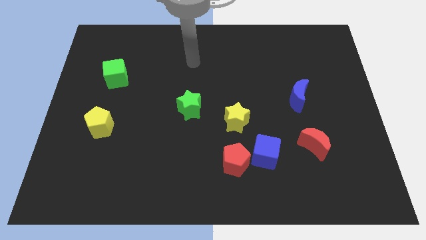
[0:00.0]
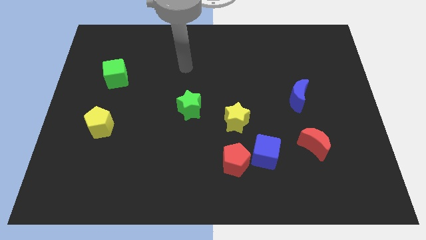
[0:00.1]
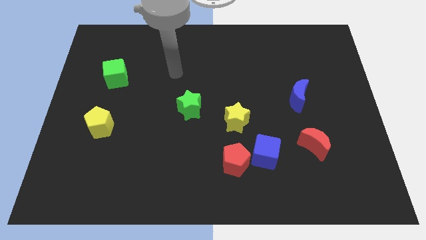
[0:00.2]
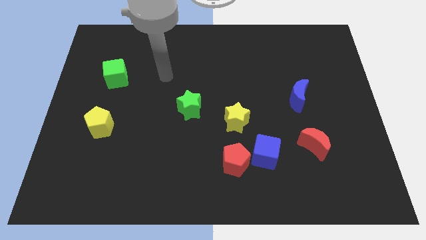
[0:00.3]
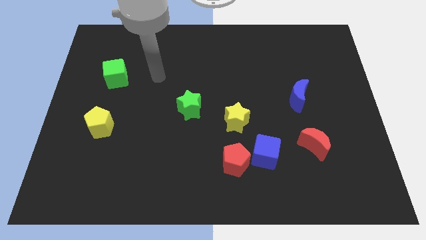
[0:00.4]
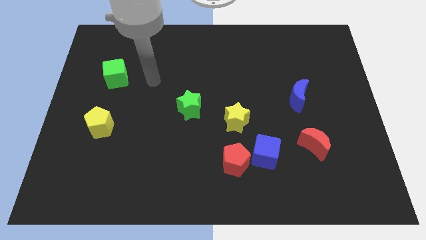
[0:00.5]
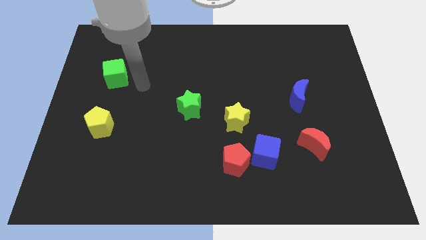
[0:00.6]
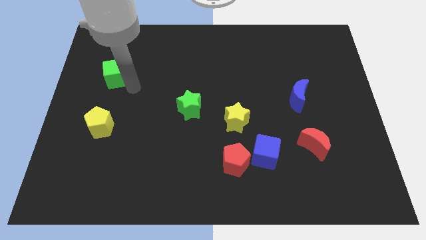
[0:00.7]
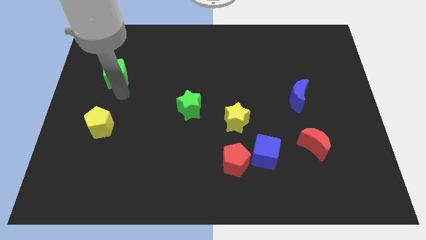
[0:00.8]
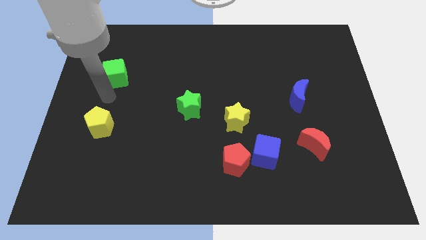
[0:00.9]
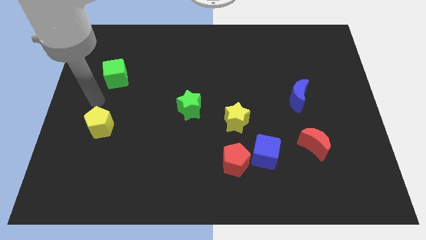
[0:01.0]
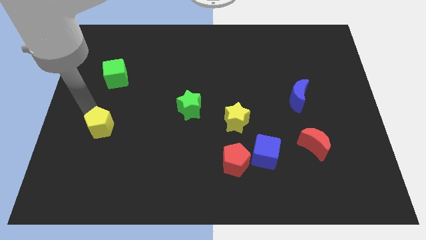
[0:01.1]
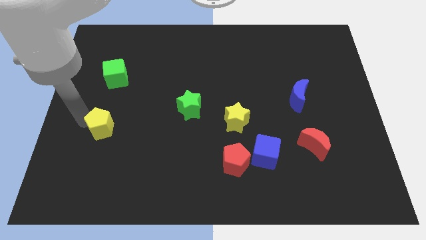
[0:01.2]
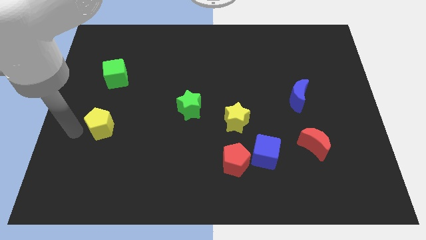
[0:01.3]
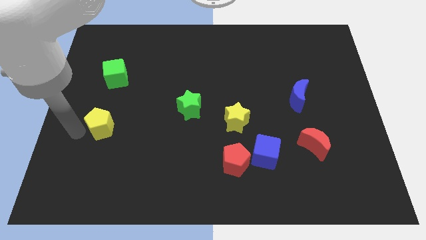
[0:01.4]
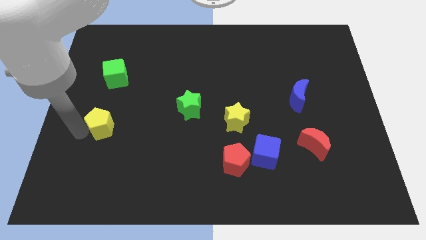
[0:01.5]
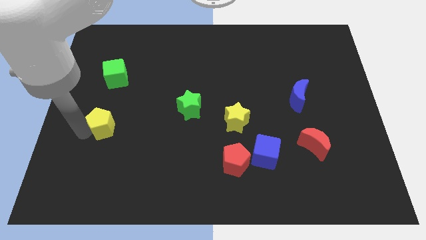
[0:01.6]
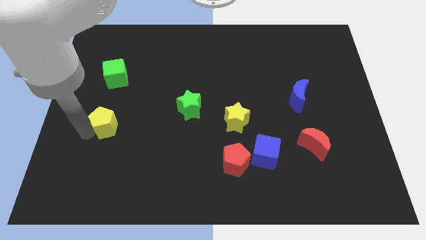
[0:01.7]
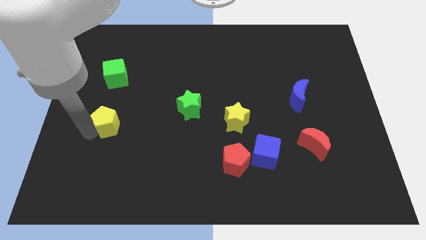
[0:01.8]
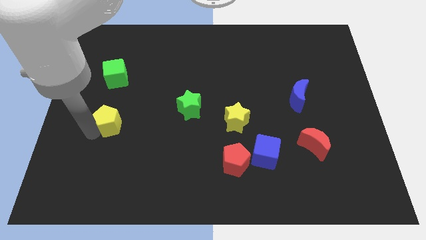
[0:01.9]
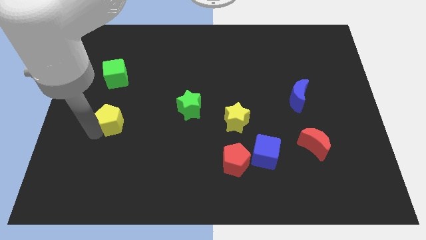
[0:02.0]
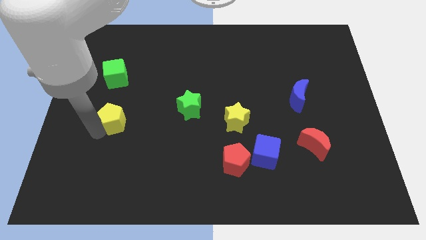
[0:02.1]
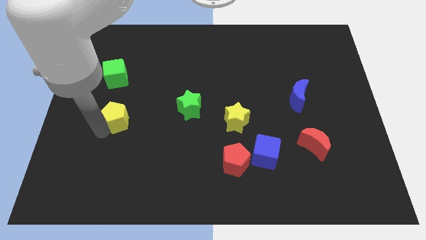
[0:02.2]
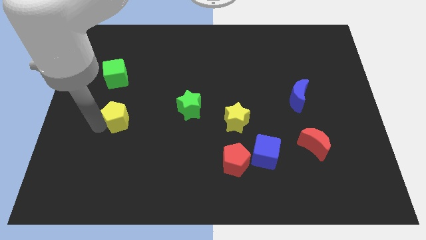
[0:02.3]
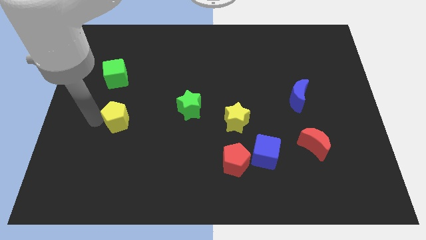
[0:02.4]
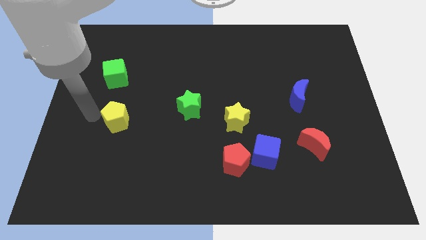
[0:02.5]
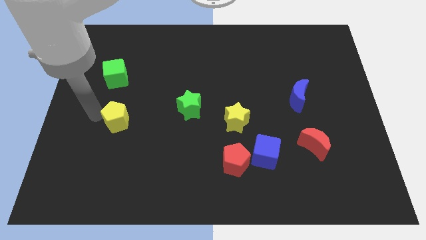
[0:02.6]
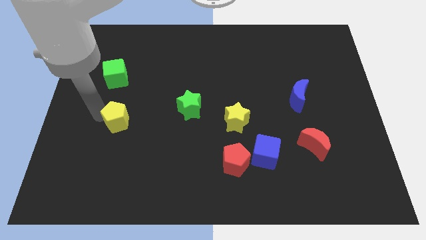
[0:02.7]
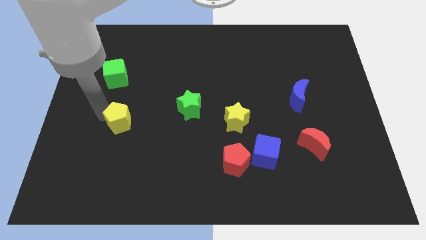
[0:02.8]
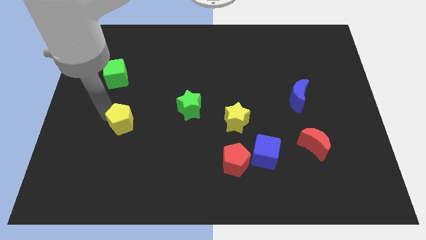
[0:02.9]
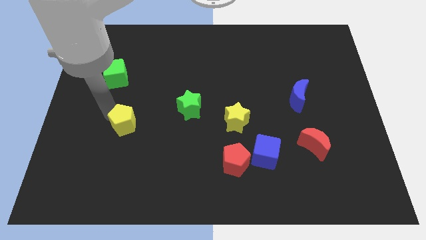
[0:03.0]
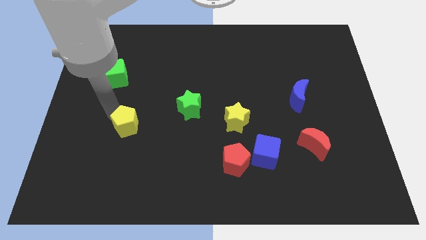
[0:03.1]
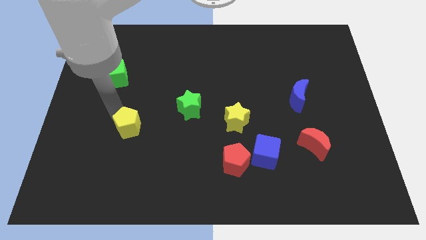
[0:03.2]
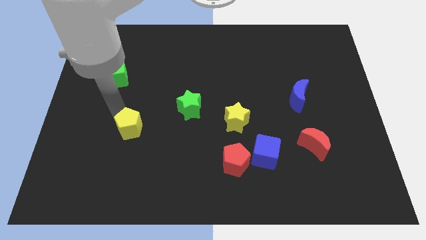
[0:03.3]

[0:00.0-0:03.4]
move the yellow pentagon right a little bit

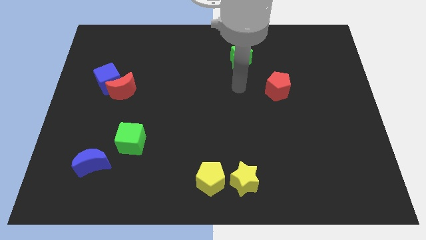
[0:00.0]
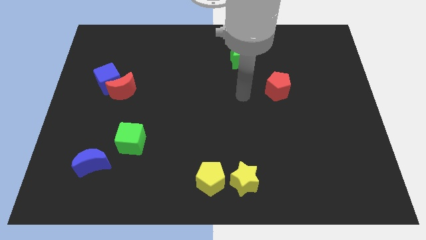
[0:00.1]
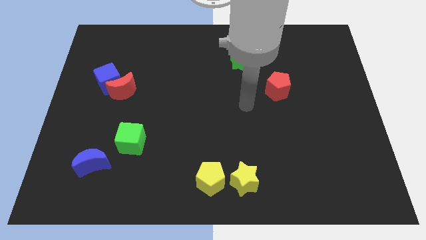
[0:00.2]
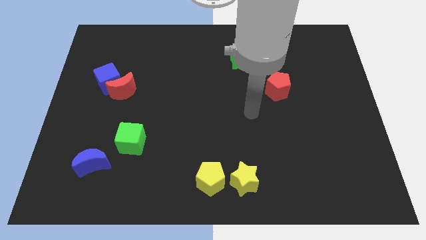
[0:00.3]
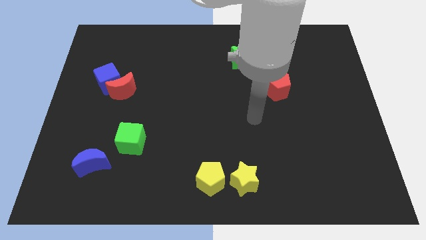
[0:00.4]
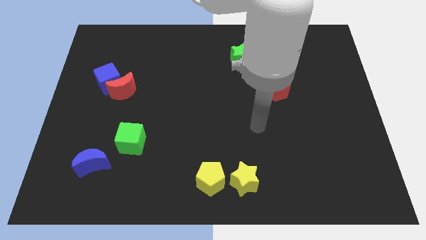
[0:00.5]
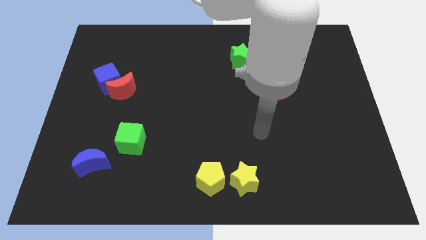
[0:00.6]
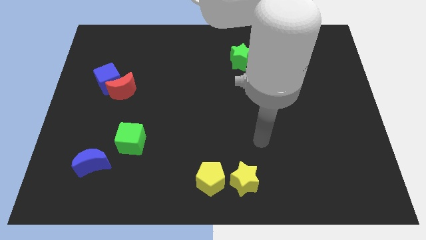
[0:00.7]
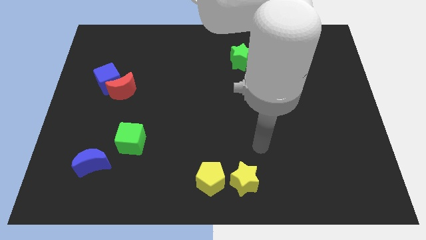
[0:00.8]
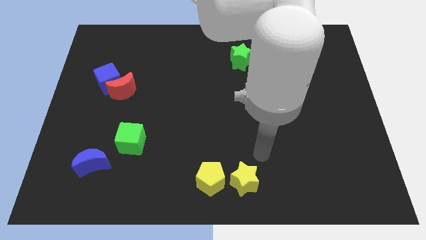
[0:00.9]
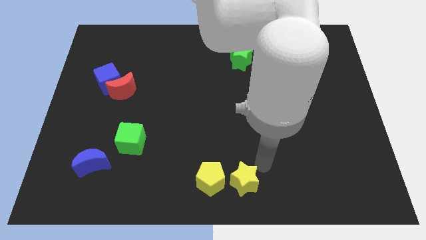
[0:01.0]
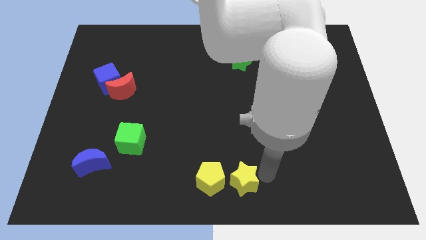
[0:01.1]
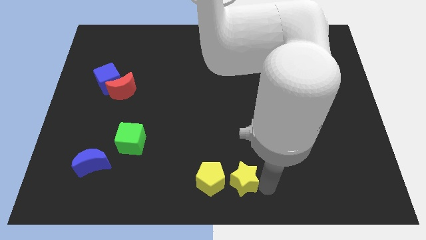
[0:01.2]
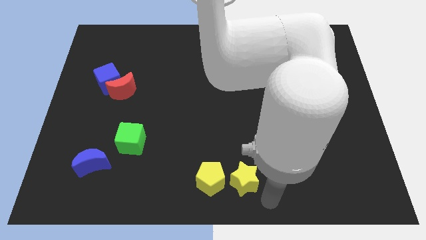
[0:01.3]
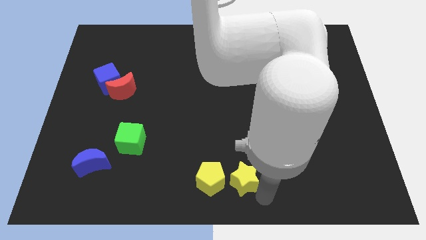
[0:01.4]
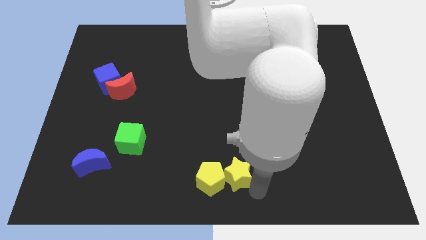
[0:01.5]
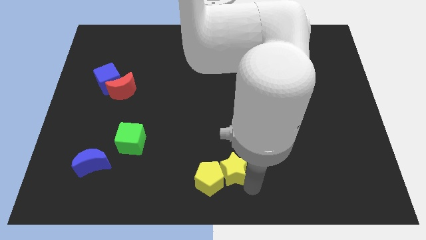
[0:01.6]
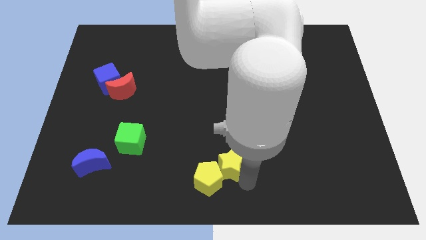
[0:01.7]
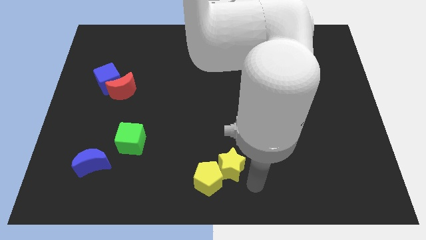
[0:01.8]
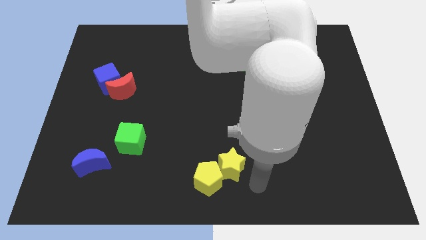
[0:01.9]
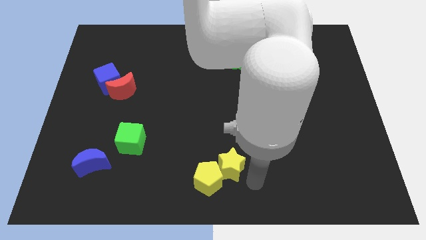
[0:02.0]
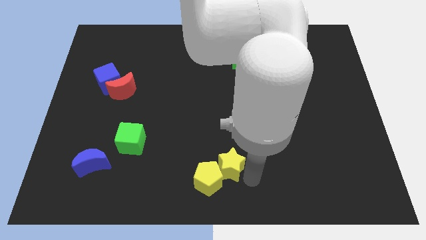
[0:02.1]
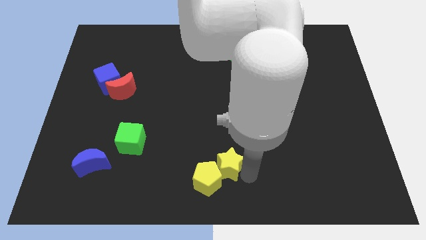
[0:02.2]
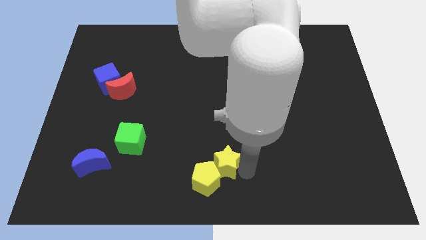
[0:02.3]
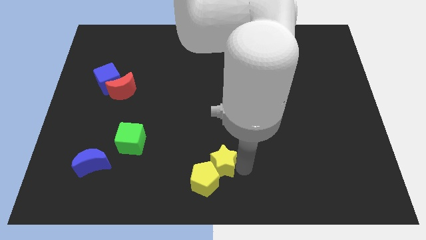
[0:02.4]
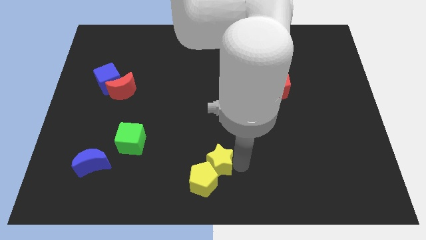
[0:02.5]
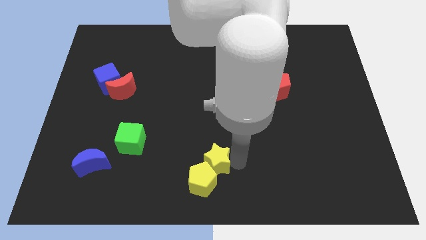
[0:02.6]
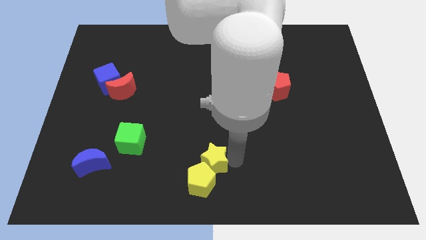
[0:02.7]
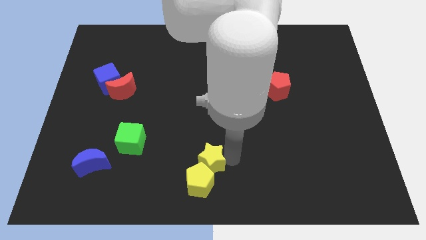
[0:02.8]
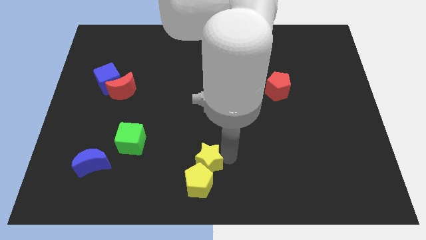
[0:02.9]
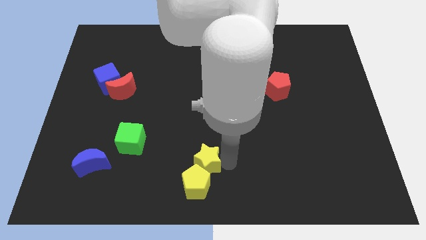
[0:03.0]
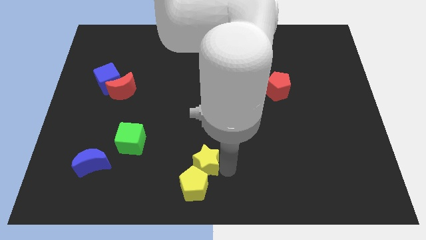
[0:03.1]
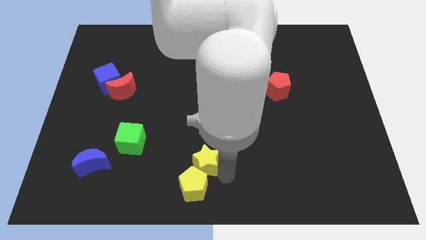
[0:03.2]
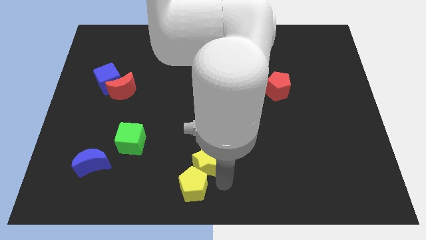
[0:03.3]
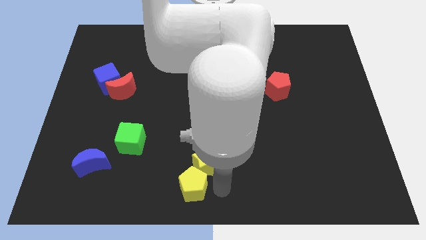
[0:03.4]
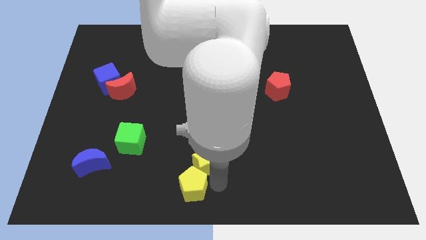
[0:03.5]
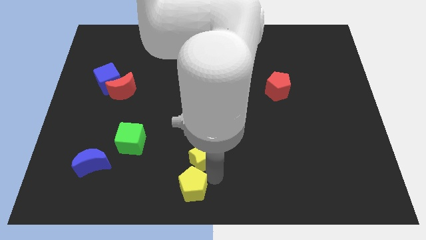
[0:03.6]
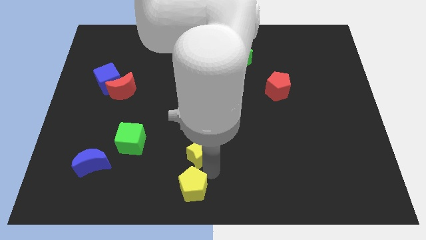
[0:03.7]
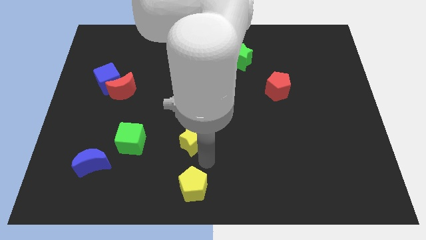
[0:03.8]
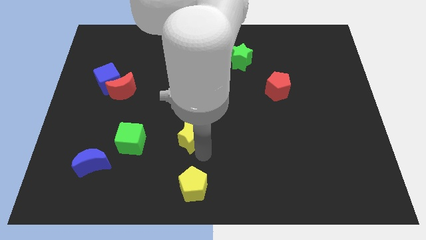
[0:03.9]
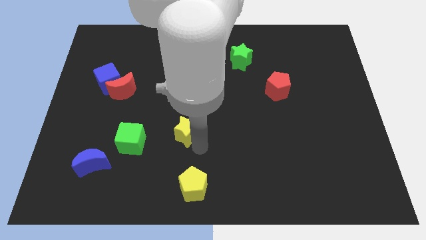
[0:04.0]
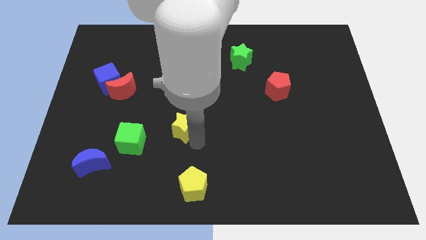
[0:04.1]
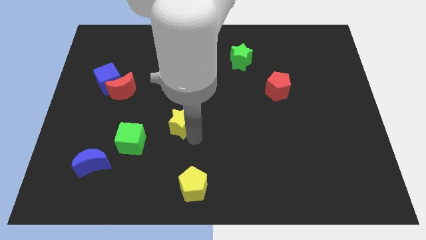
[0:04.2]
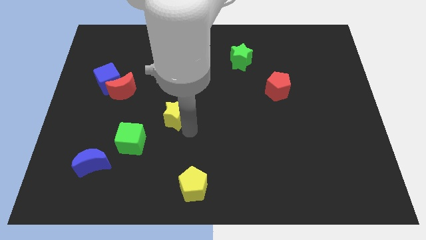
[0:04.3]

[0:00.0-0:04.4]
slide the yellow star diagonally up and left
